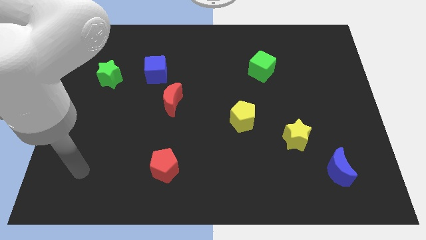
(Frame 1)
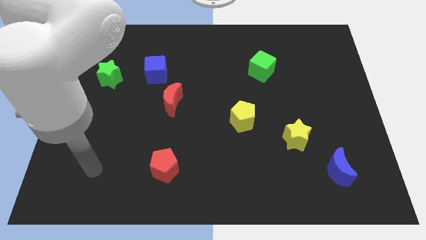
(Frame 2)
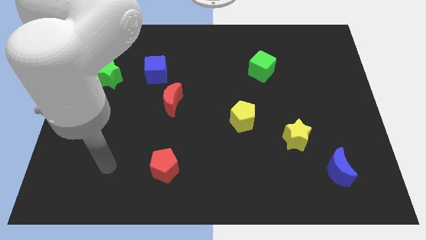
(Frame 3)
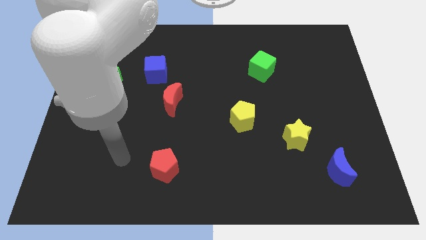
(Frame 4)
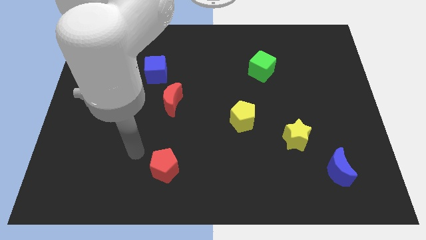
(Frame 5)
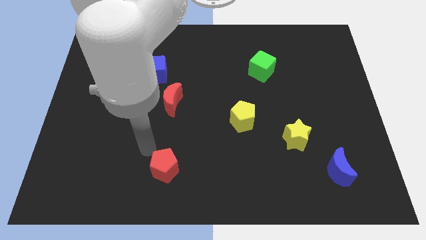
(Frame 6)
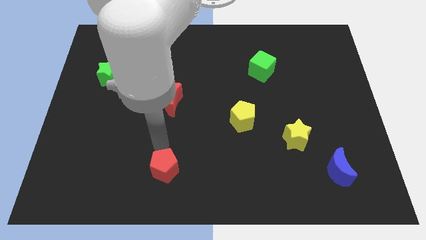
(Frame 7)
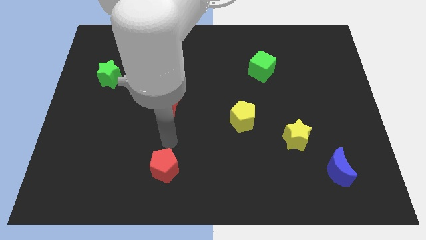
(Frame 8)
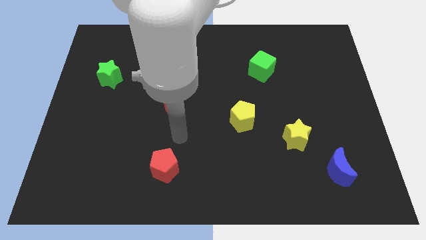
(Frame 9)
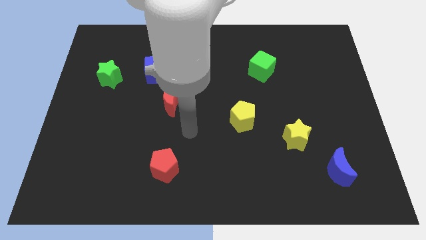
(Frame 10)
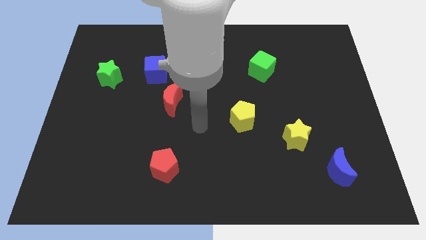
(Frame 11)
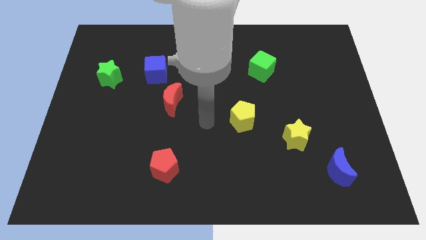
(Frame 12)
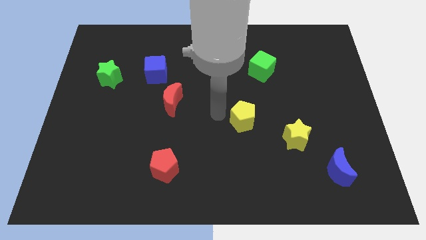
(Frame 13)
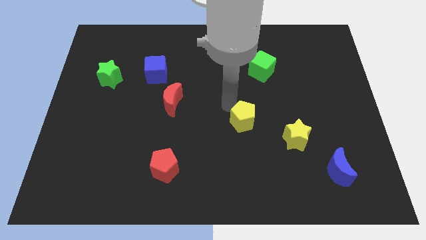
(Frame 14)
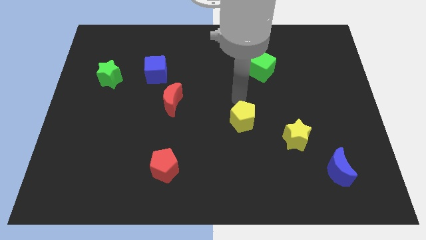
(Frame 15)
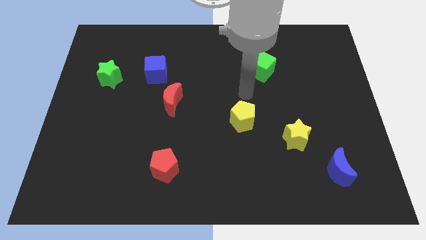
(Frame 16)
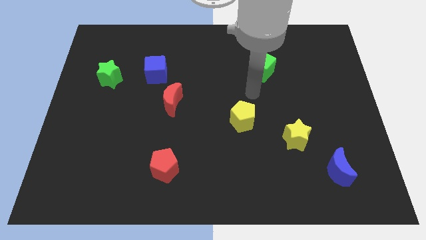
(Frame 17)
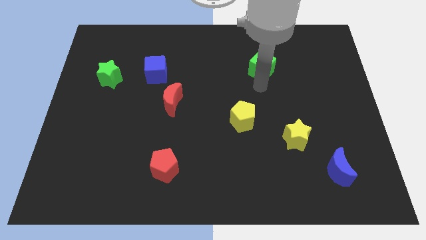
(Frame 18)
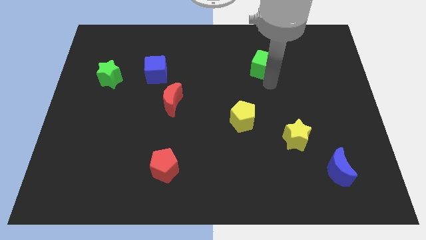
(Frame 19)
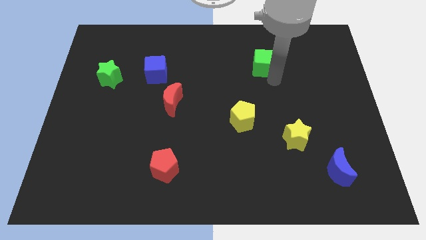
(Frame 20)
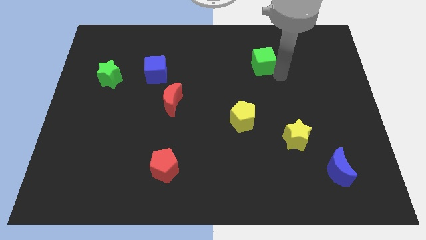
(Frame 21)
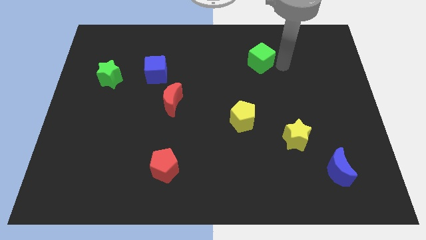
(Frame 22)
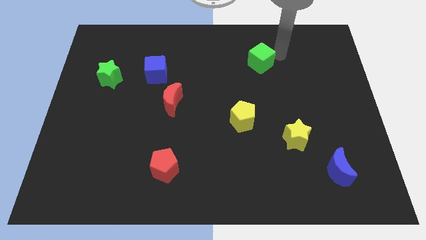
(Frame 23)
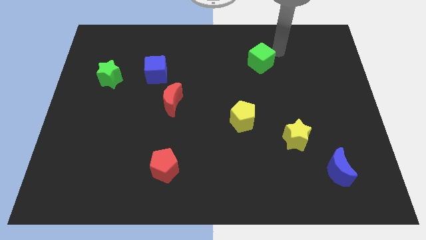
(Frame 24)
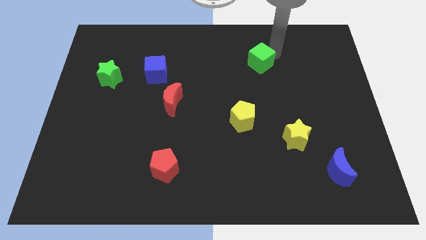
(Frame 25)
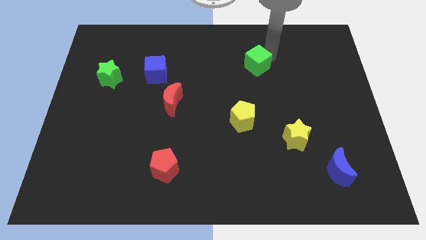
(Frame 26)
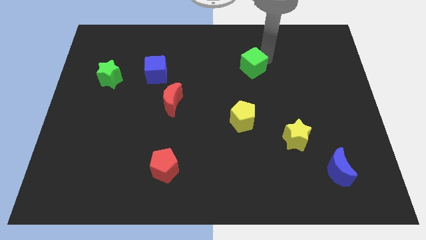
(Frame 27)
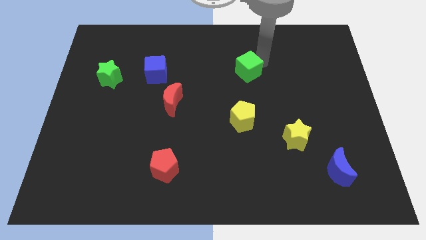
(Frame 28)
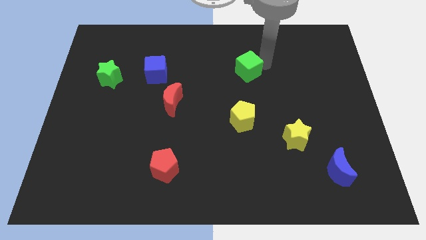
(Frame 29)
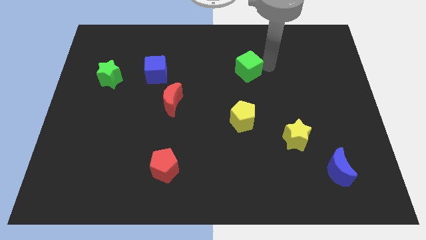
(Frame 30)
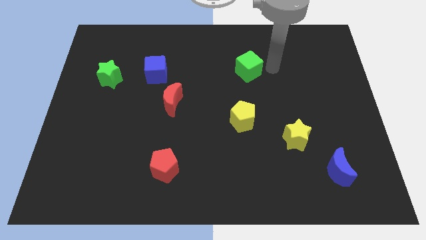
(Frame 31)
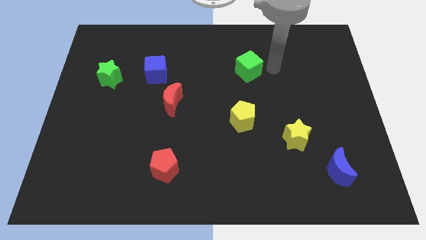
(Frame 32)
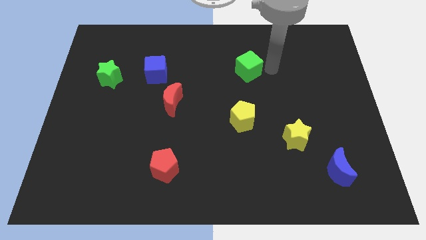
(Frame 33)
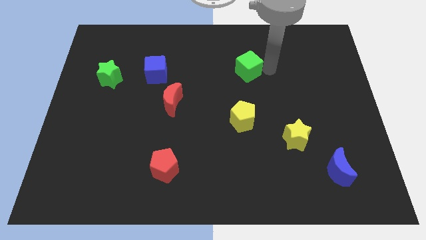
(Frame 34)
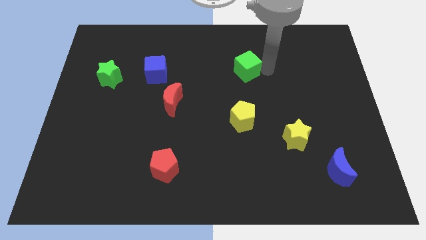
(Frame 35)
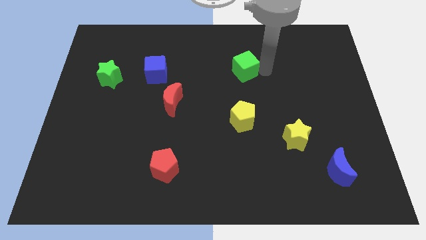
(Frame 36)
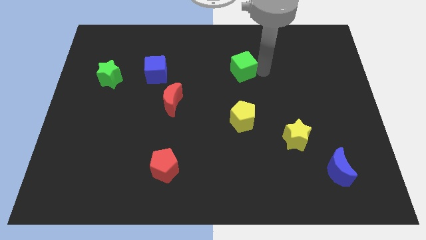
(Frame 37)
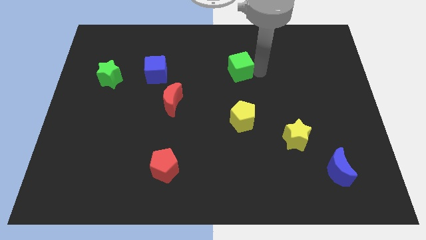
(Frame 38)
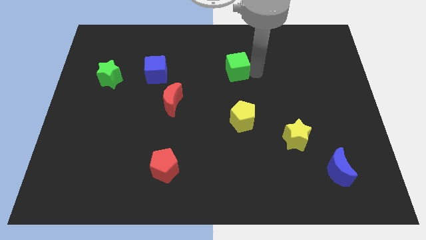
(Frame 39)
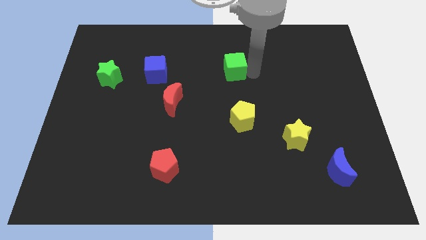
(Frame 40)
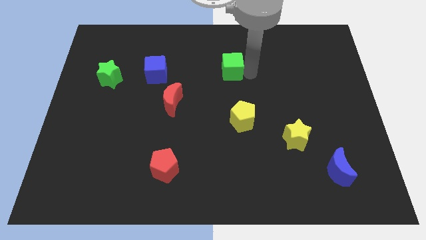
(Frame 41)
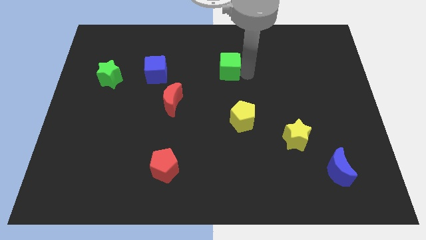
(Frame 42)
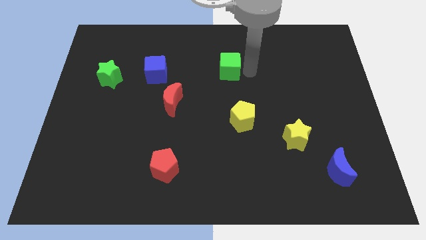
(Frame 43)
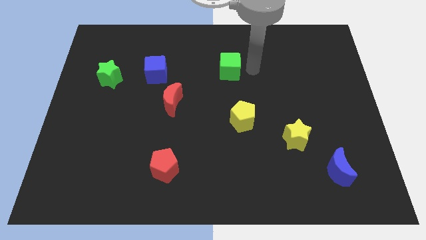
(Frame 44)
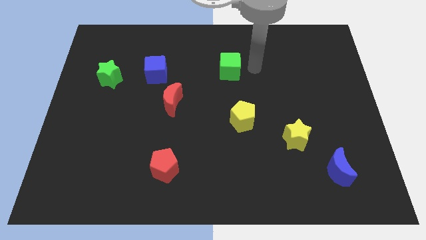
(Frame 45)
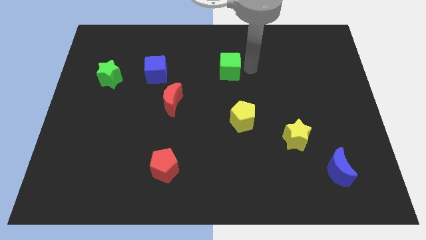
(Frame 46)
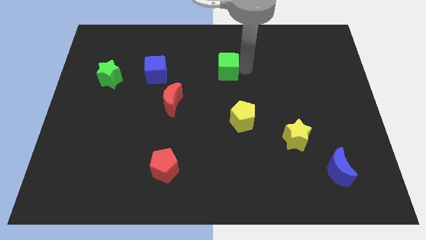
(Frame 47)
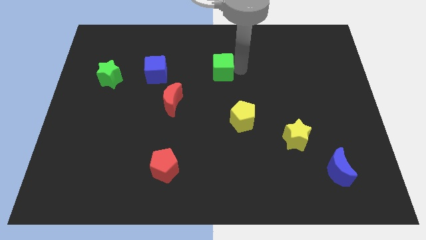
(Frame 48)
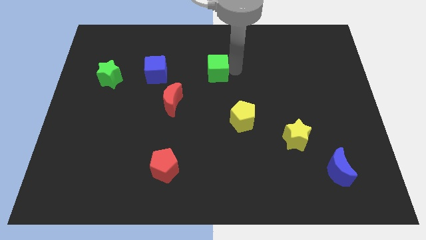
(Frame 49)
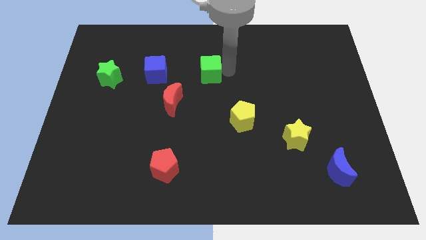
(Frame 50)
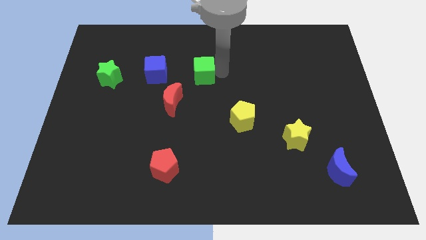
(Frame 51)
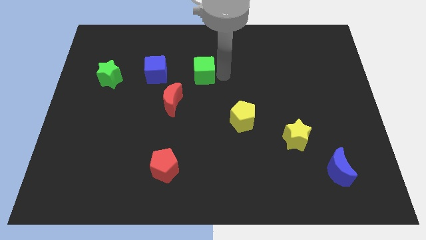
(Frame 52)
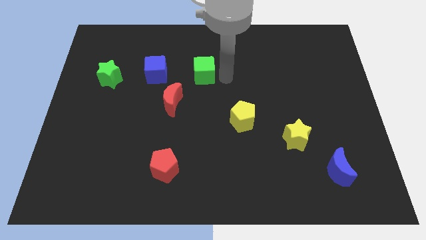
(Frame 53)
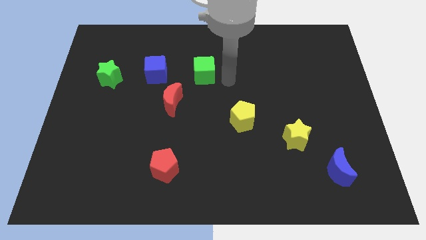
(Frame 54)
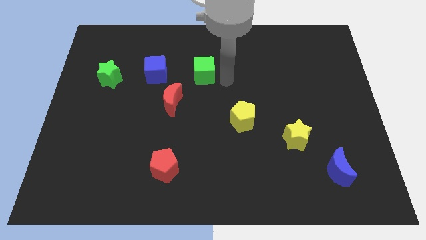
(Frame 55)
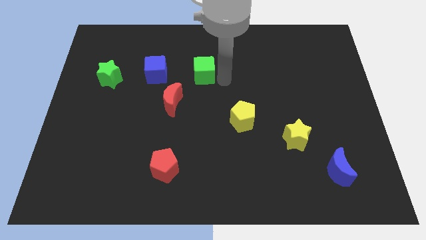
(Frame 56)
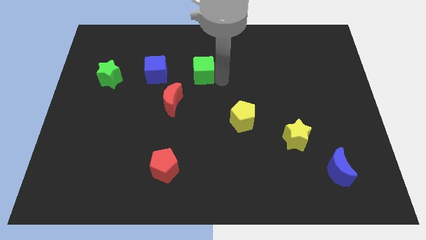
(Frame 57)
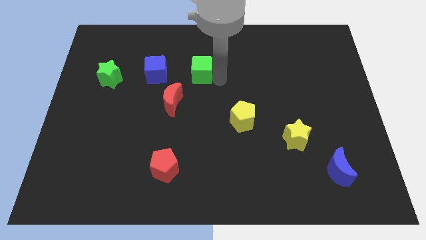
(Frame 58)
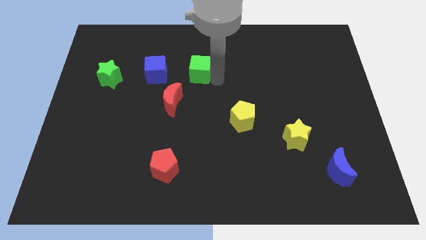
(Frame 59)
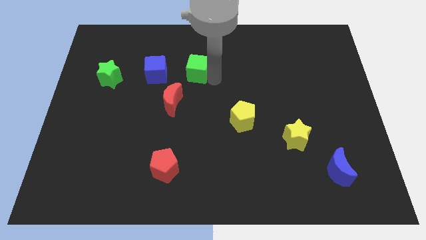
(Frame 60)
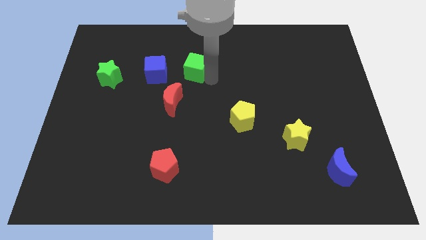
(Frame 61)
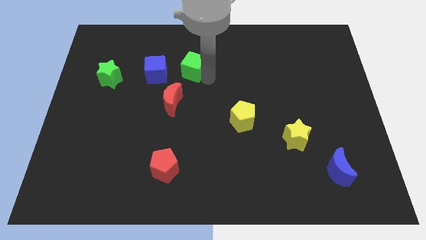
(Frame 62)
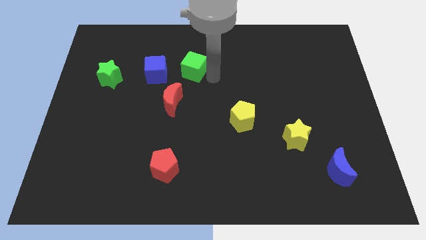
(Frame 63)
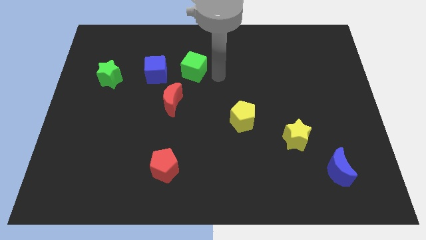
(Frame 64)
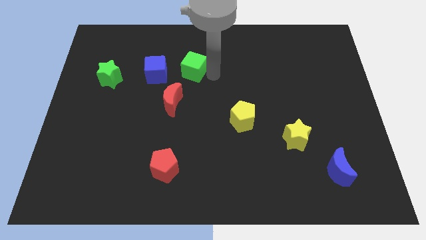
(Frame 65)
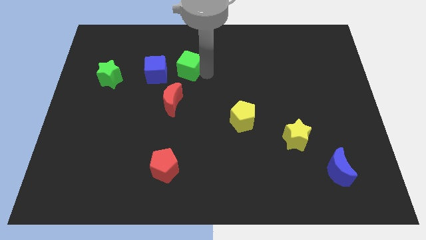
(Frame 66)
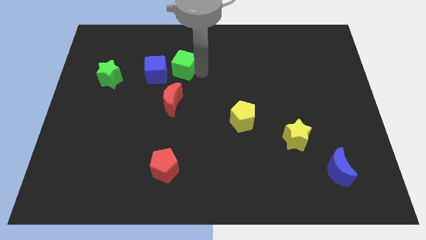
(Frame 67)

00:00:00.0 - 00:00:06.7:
slide the green cube to the left

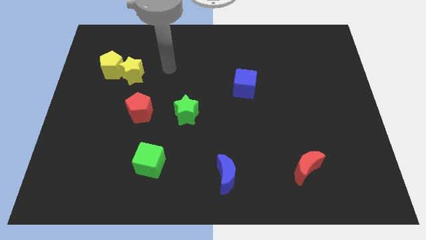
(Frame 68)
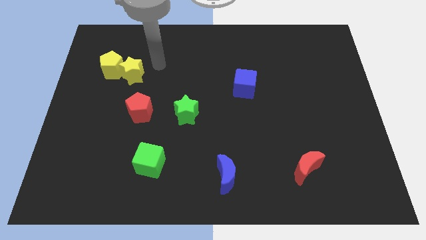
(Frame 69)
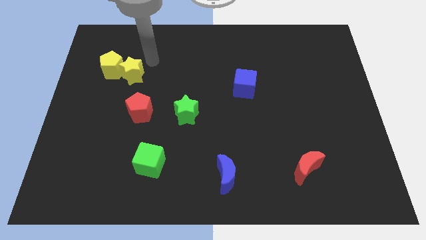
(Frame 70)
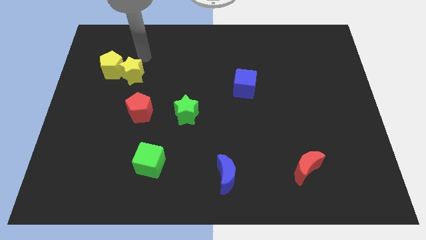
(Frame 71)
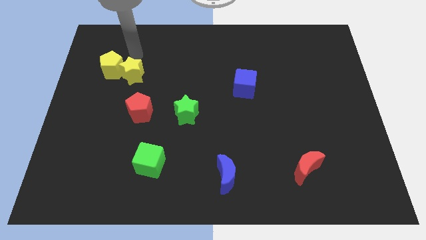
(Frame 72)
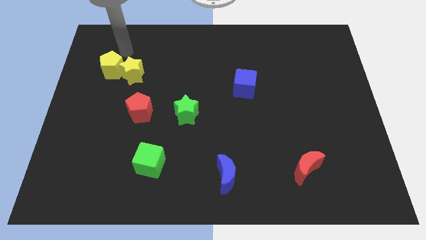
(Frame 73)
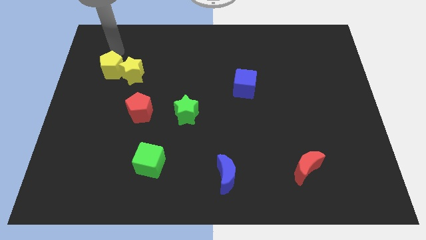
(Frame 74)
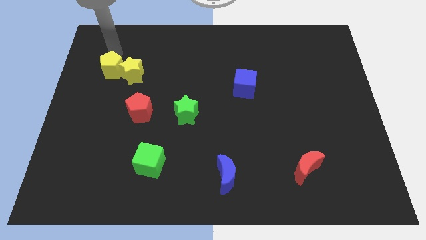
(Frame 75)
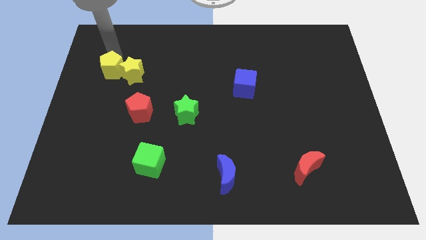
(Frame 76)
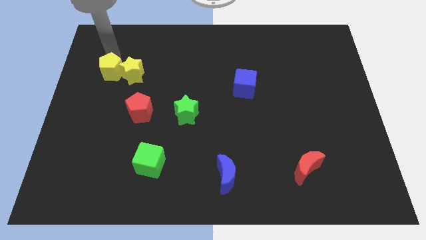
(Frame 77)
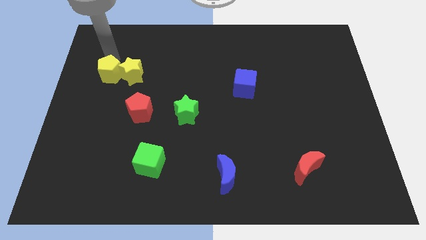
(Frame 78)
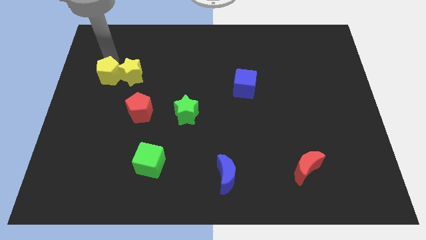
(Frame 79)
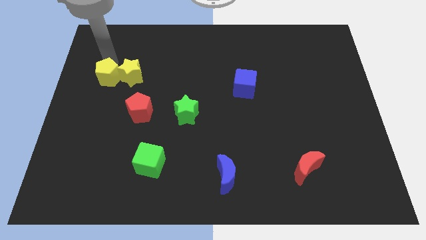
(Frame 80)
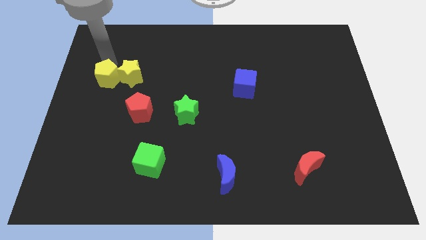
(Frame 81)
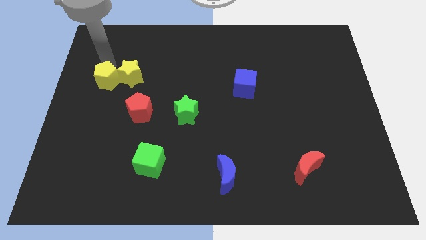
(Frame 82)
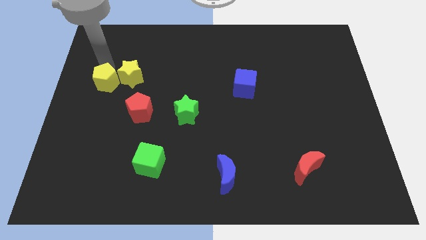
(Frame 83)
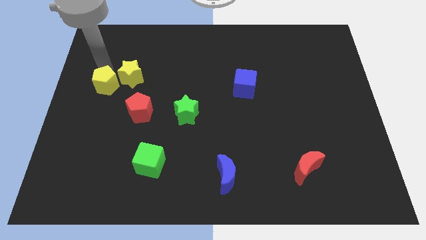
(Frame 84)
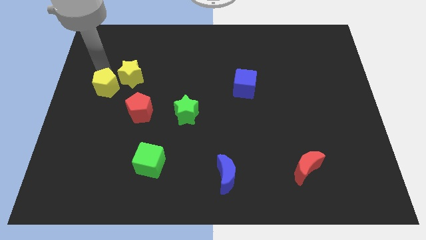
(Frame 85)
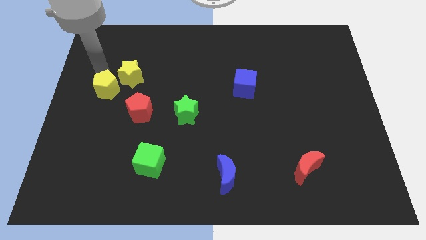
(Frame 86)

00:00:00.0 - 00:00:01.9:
slightly push the yellow pentagon downwards
